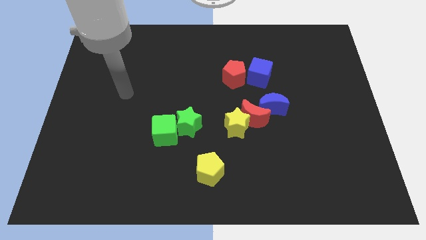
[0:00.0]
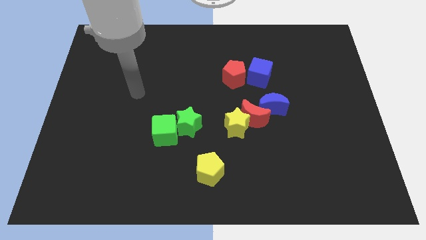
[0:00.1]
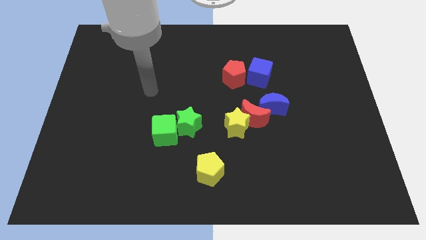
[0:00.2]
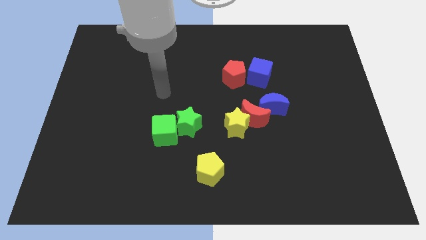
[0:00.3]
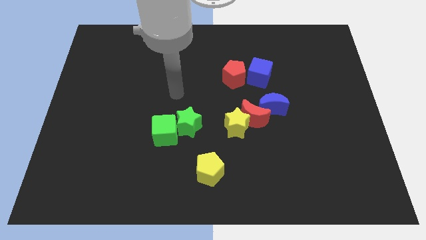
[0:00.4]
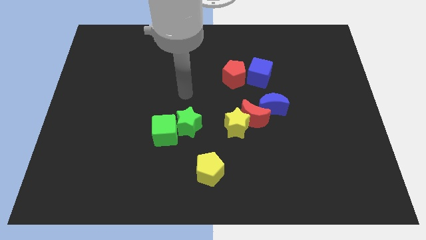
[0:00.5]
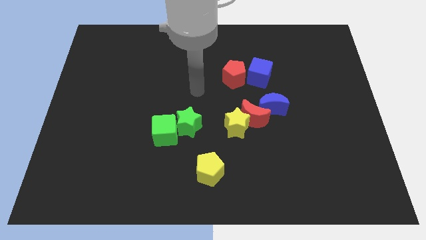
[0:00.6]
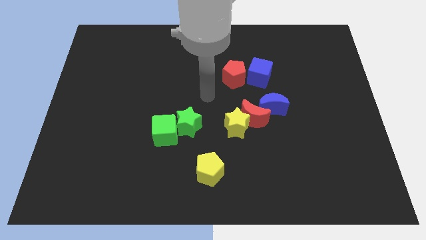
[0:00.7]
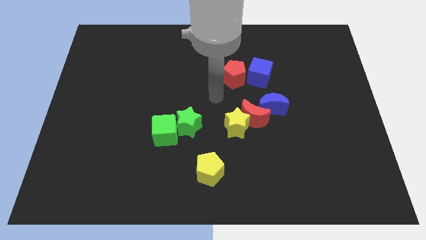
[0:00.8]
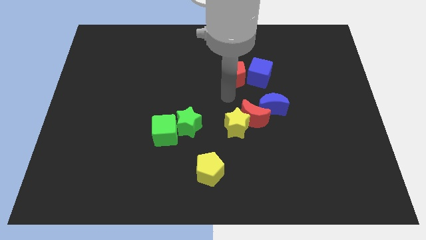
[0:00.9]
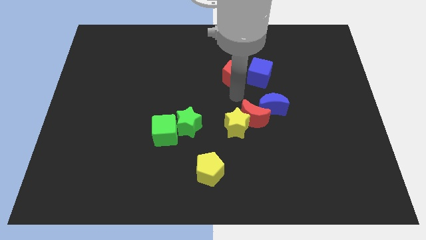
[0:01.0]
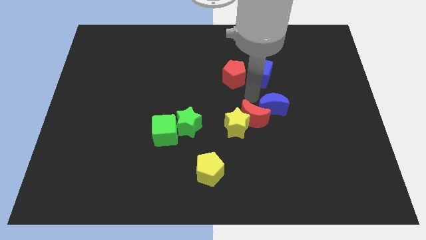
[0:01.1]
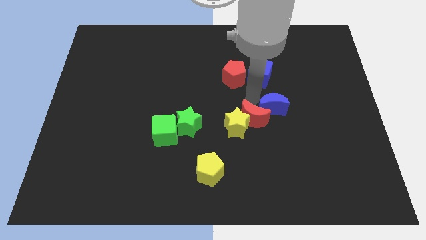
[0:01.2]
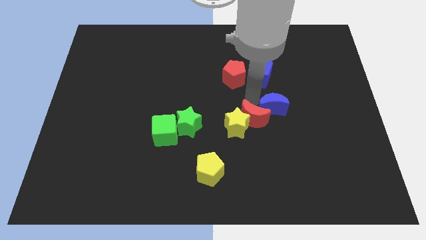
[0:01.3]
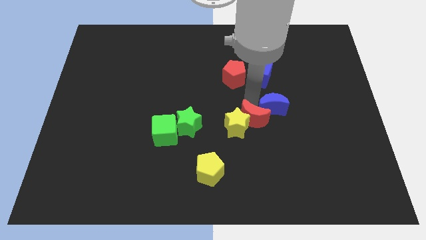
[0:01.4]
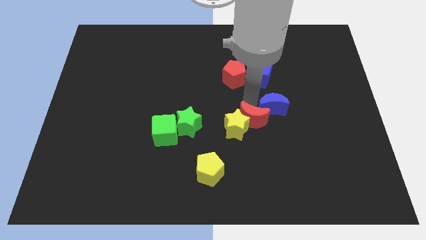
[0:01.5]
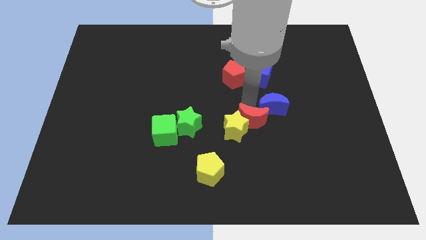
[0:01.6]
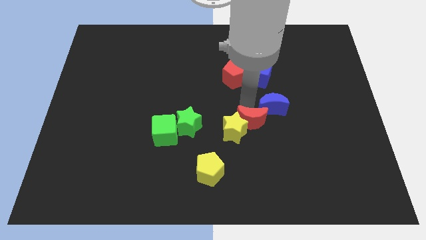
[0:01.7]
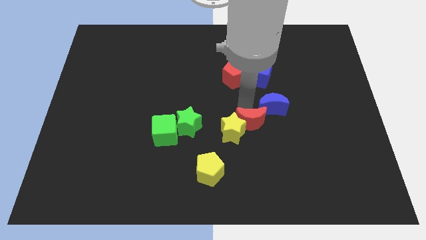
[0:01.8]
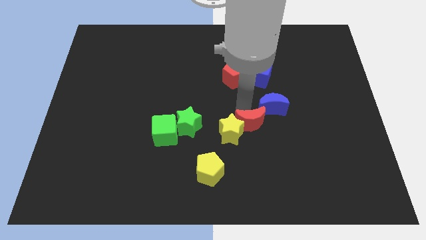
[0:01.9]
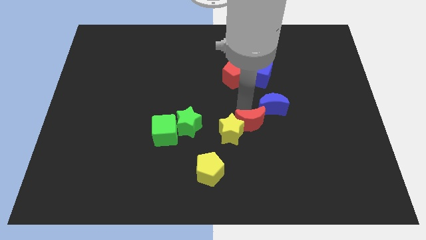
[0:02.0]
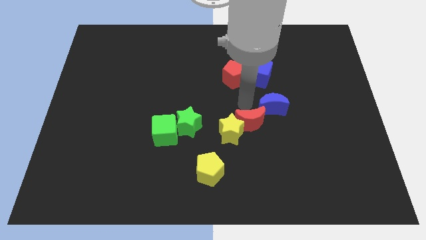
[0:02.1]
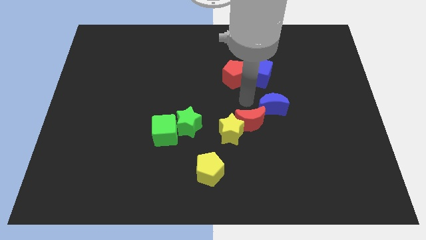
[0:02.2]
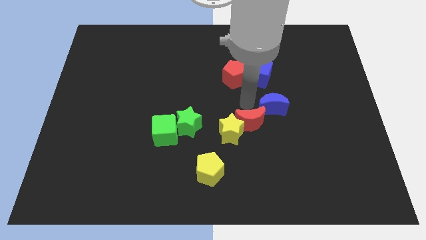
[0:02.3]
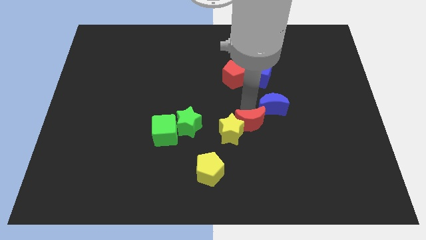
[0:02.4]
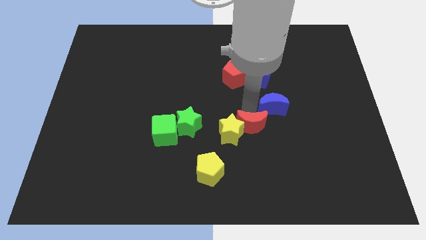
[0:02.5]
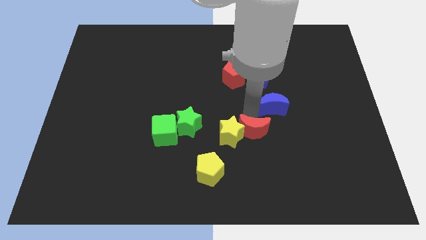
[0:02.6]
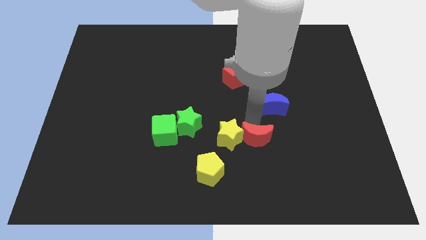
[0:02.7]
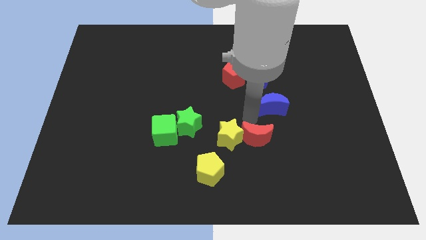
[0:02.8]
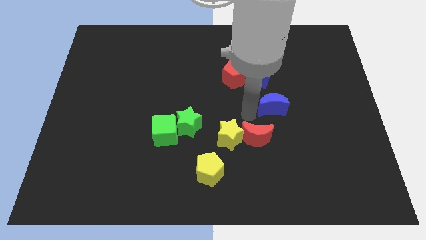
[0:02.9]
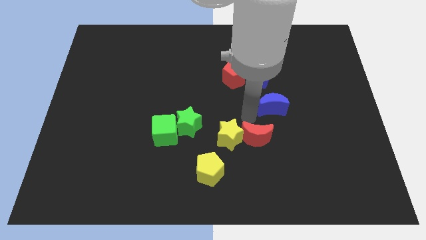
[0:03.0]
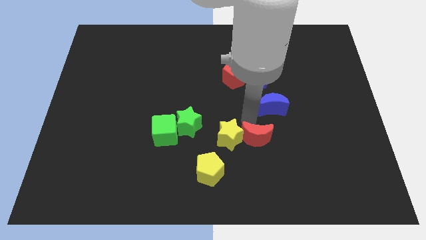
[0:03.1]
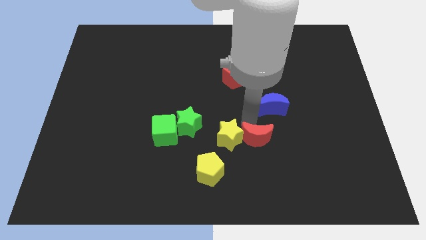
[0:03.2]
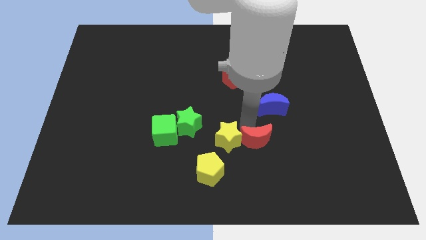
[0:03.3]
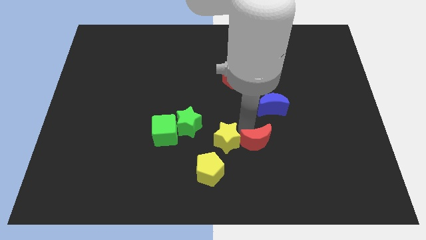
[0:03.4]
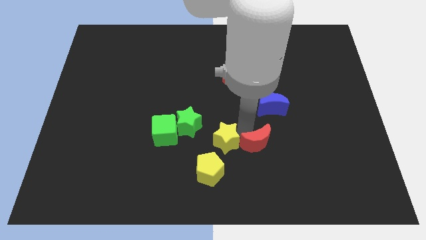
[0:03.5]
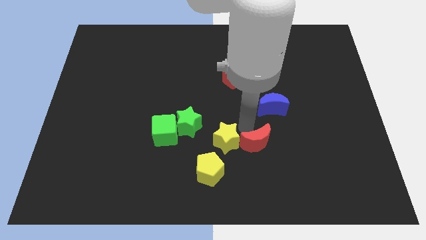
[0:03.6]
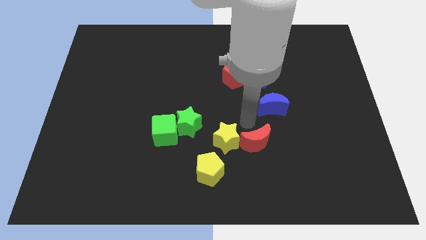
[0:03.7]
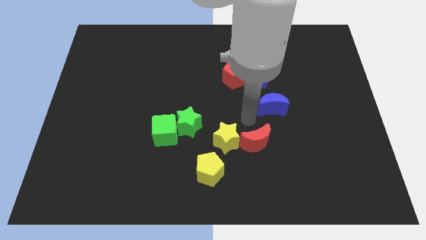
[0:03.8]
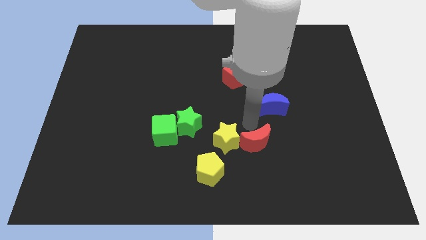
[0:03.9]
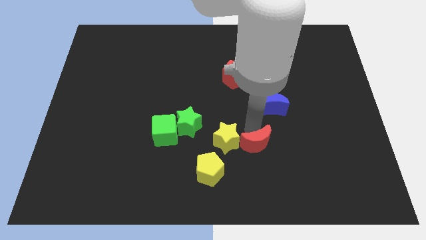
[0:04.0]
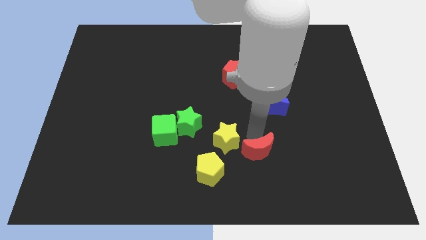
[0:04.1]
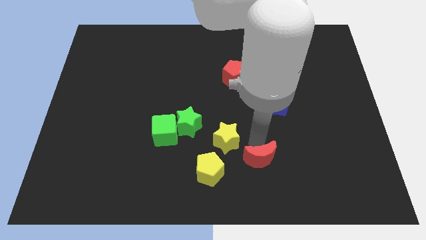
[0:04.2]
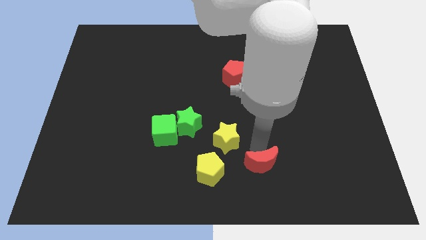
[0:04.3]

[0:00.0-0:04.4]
move the red moon away from the yellow star and blue moon

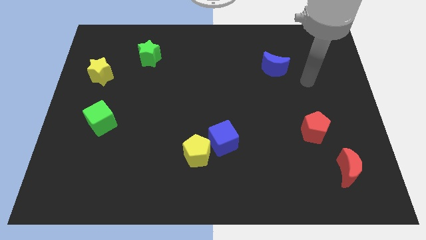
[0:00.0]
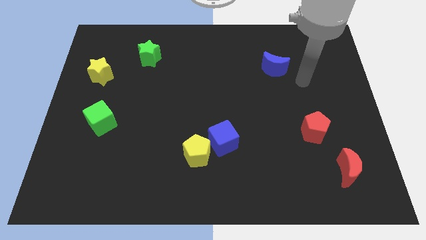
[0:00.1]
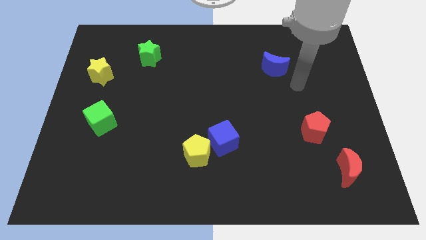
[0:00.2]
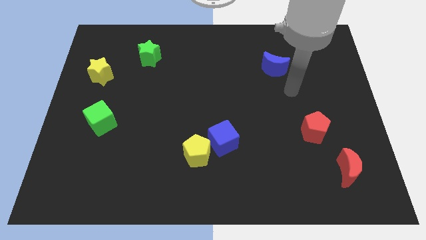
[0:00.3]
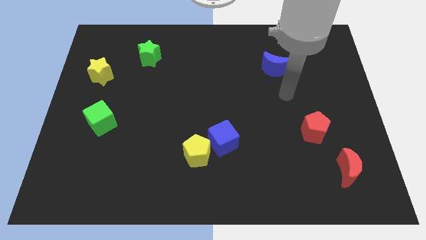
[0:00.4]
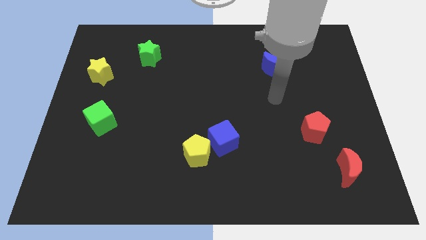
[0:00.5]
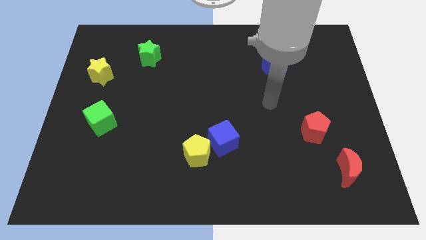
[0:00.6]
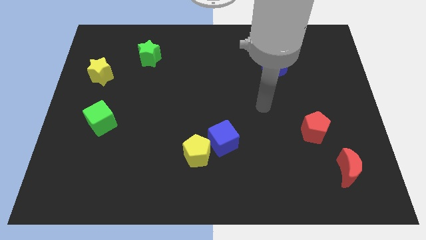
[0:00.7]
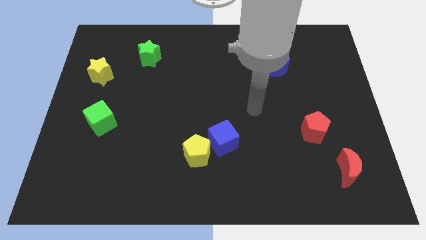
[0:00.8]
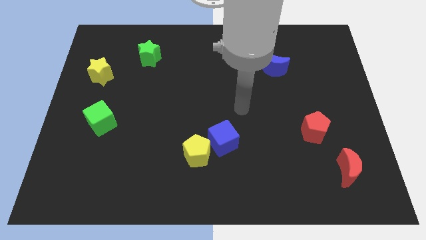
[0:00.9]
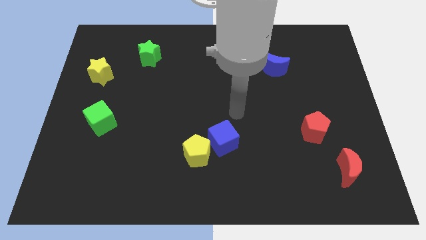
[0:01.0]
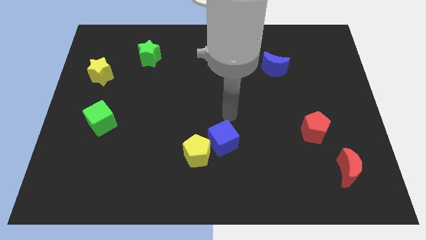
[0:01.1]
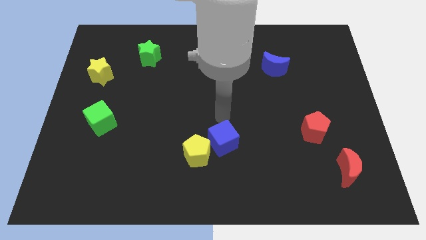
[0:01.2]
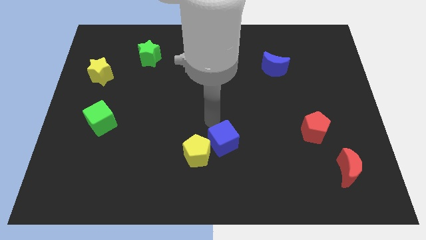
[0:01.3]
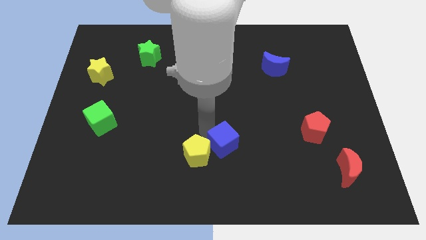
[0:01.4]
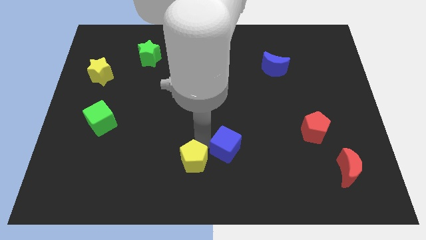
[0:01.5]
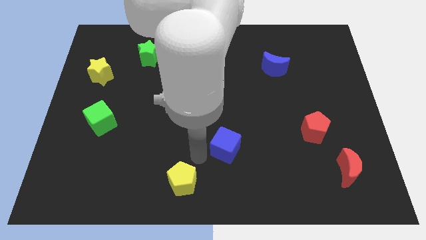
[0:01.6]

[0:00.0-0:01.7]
separate the blue cube from the yellow pentagon

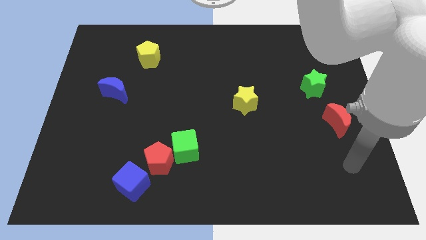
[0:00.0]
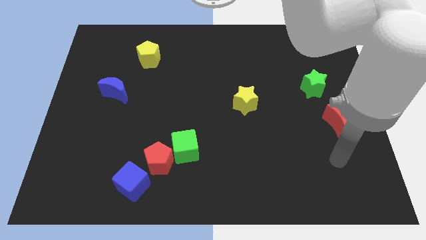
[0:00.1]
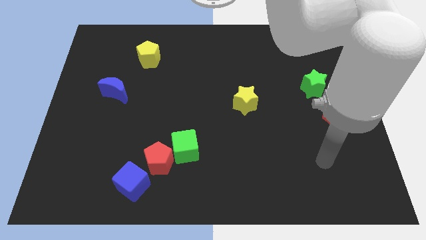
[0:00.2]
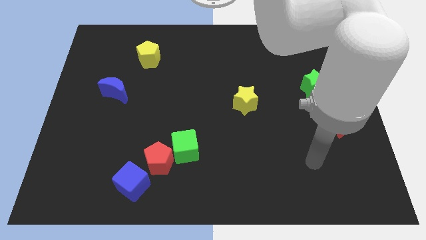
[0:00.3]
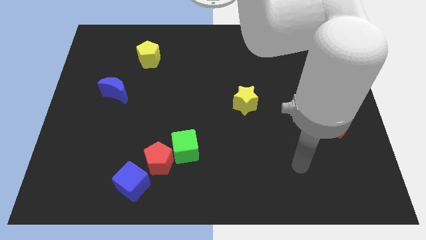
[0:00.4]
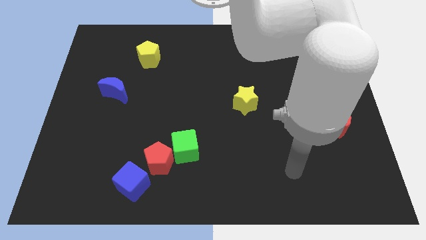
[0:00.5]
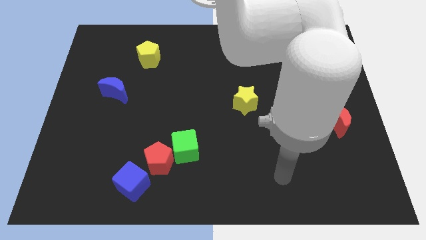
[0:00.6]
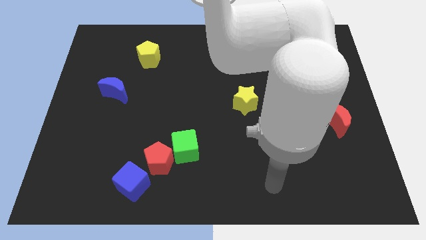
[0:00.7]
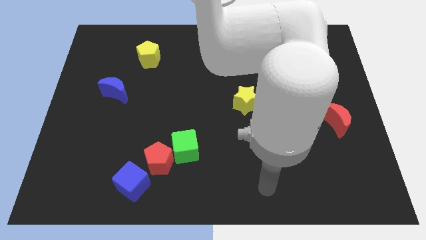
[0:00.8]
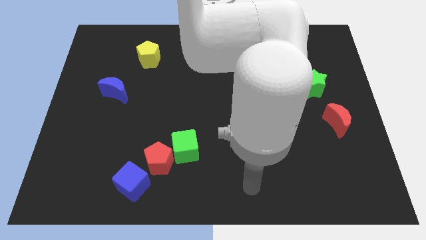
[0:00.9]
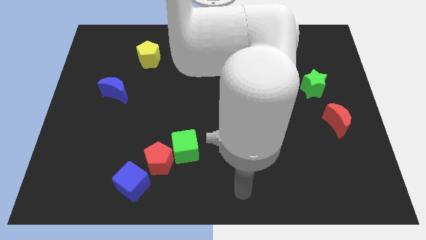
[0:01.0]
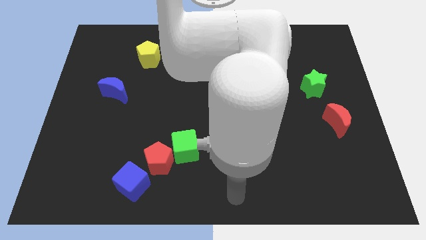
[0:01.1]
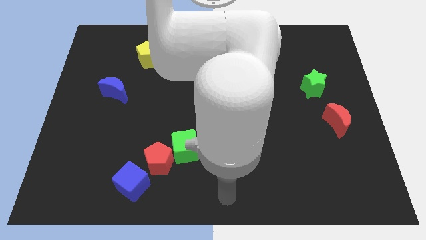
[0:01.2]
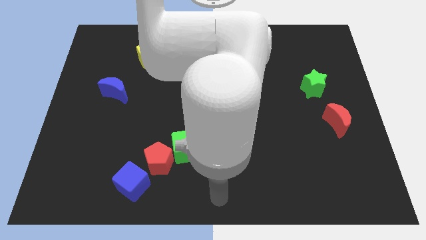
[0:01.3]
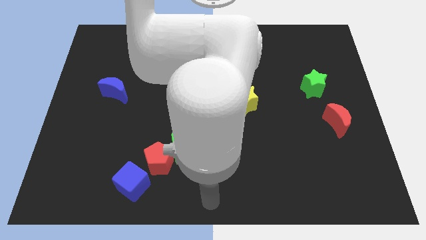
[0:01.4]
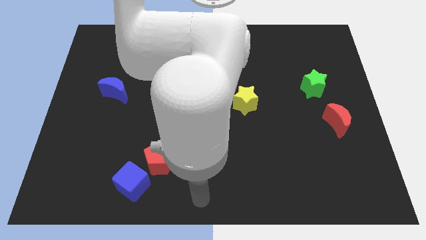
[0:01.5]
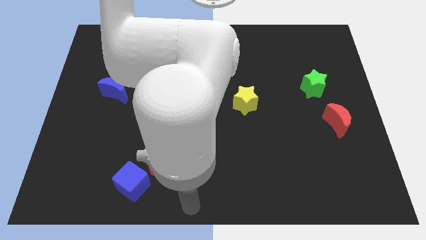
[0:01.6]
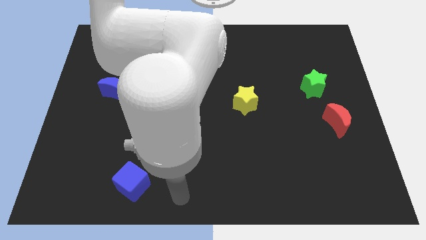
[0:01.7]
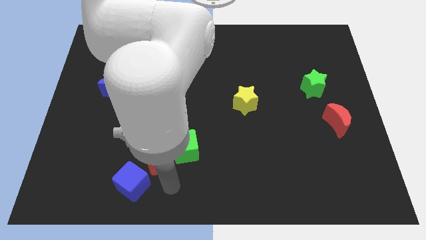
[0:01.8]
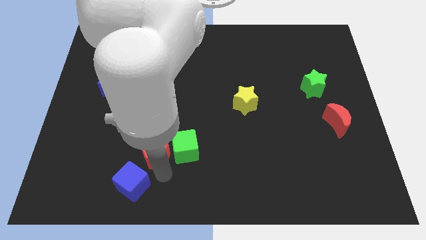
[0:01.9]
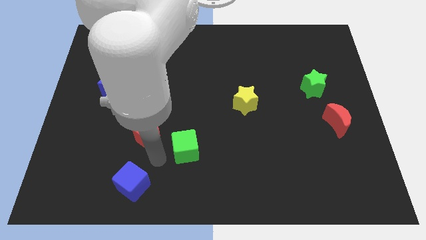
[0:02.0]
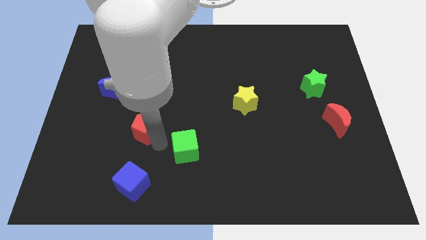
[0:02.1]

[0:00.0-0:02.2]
move the green cube away from the red pentagon

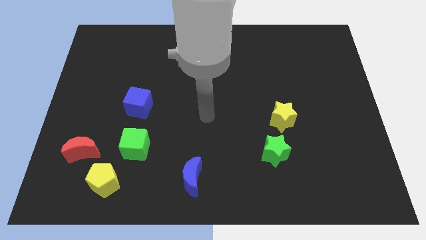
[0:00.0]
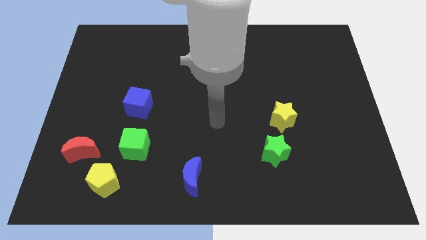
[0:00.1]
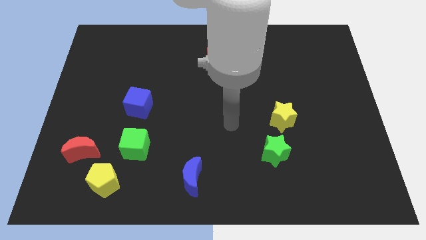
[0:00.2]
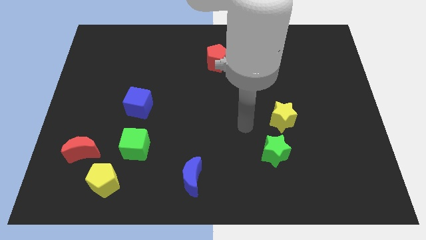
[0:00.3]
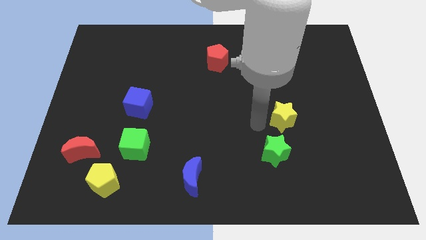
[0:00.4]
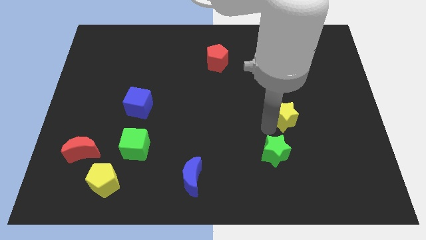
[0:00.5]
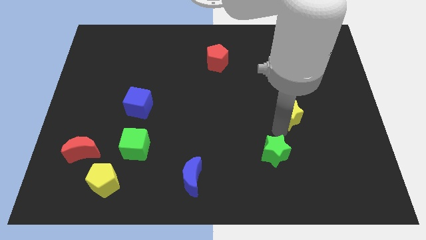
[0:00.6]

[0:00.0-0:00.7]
move the green star away from the yellow star

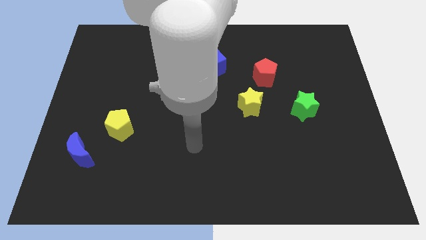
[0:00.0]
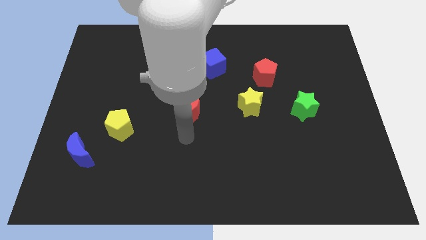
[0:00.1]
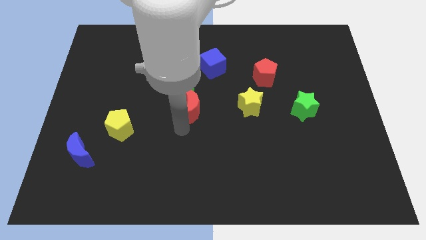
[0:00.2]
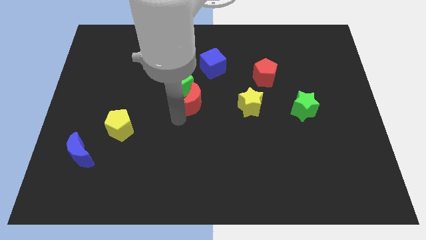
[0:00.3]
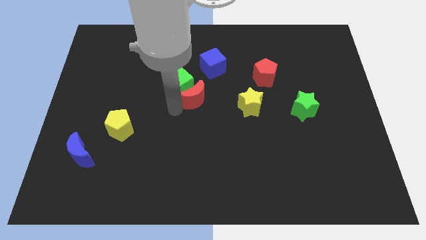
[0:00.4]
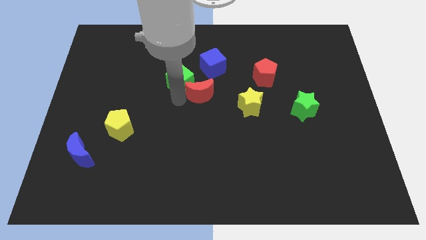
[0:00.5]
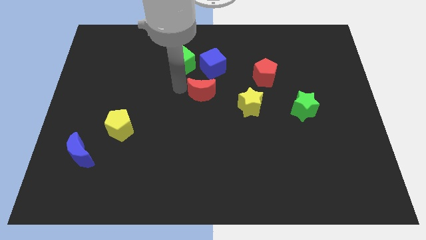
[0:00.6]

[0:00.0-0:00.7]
move the red moon away from the green cube
